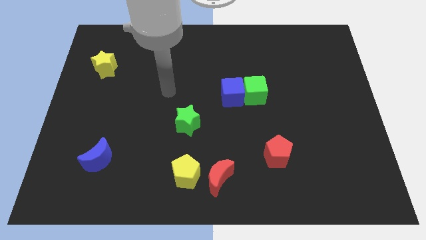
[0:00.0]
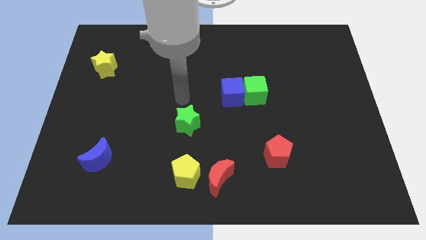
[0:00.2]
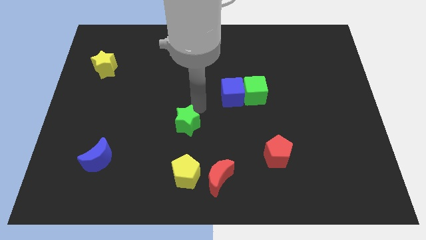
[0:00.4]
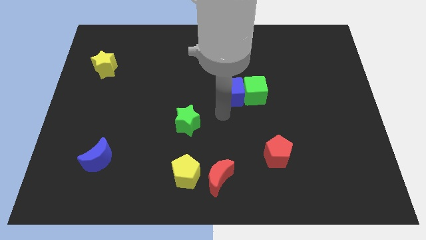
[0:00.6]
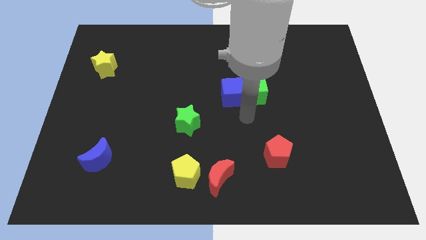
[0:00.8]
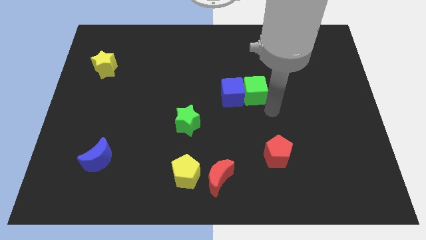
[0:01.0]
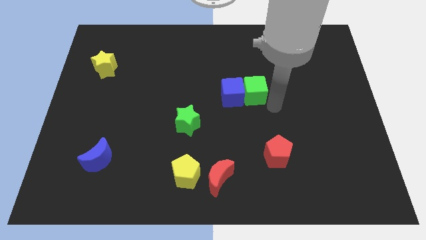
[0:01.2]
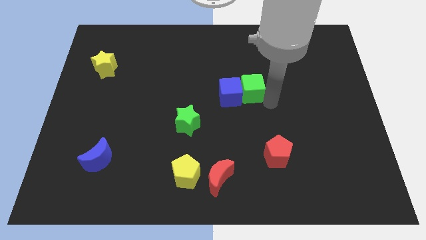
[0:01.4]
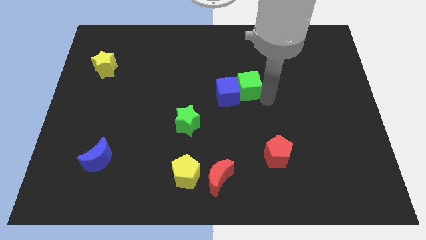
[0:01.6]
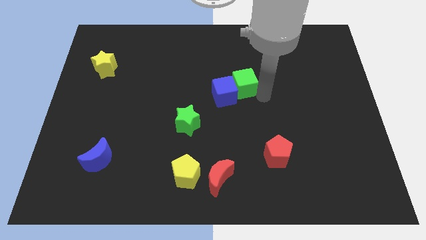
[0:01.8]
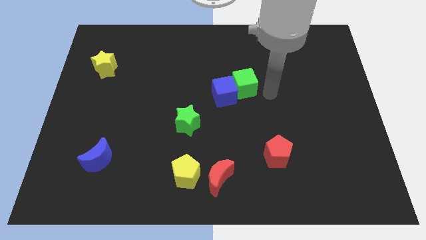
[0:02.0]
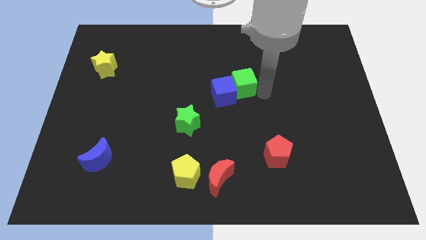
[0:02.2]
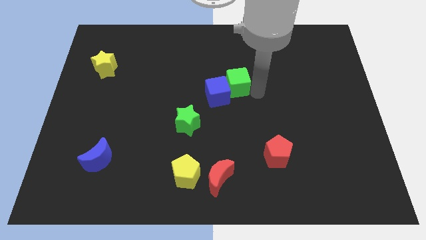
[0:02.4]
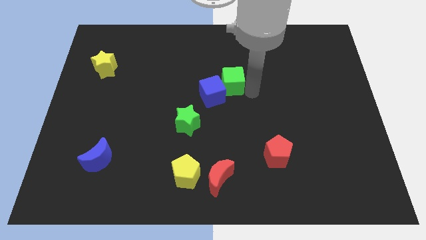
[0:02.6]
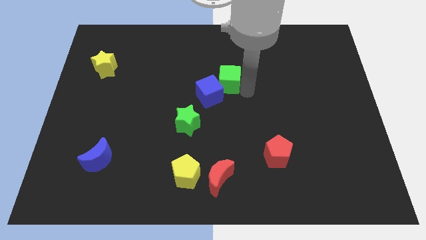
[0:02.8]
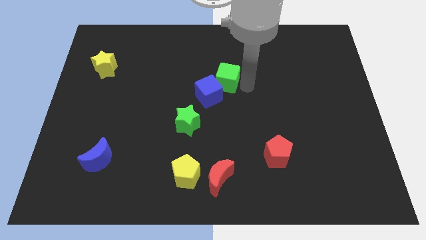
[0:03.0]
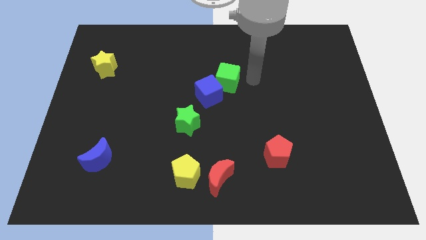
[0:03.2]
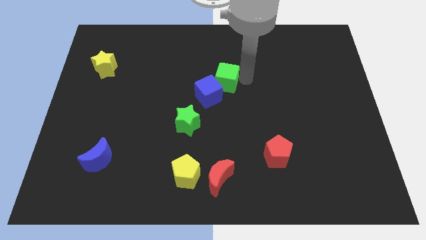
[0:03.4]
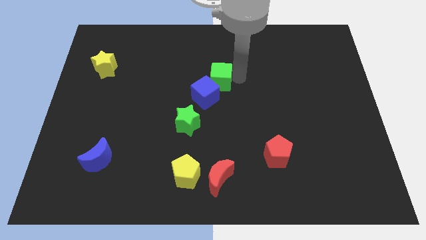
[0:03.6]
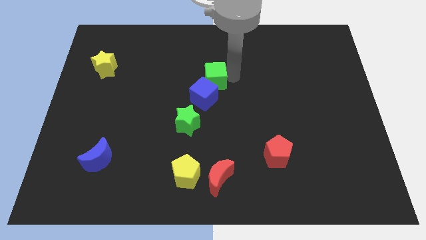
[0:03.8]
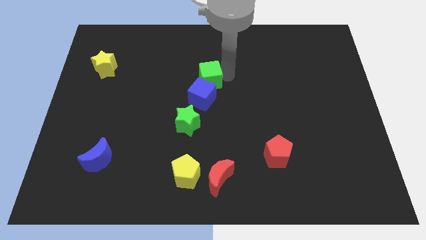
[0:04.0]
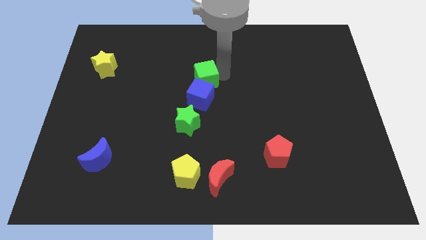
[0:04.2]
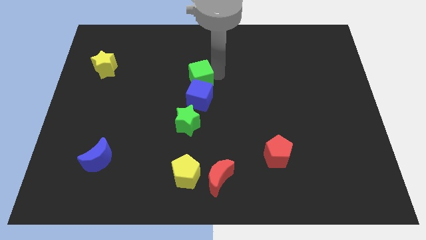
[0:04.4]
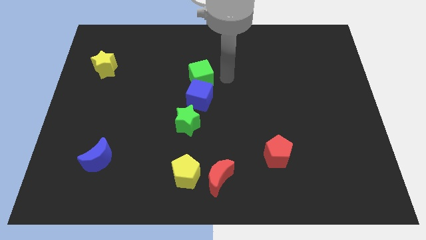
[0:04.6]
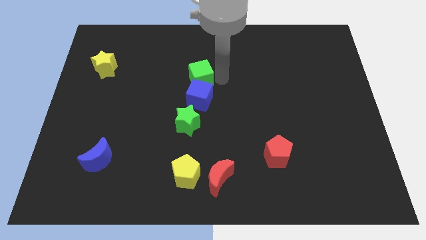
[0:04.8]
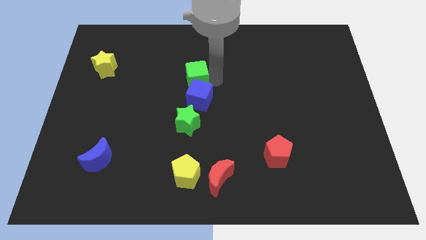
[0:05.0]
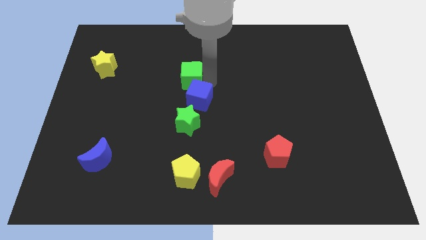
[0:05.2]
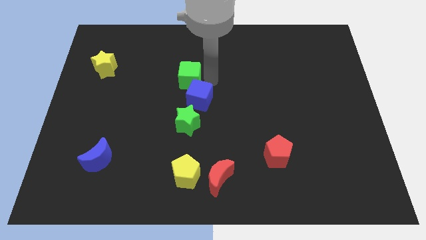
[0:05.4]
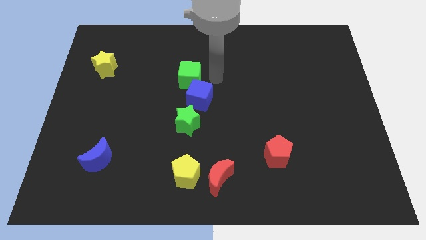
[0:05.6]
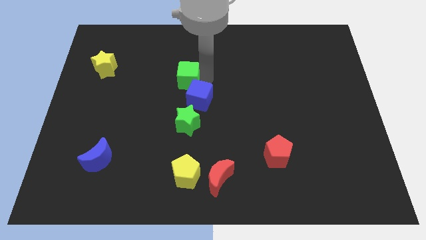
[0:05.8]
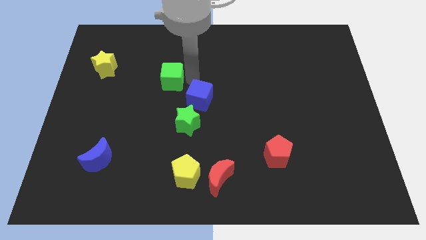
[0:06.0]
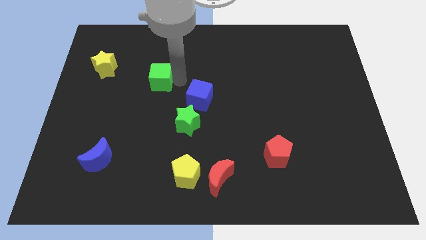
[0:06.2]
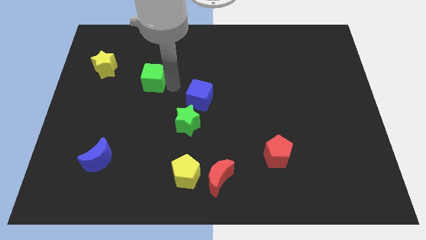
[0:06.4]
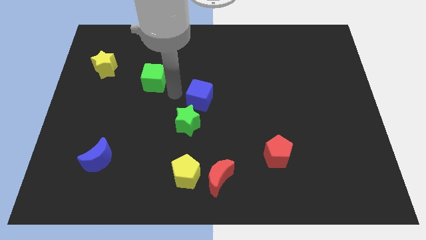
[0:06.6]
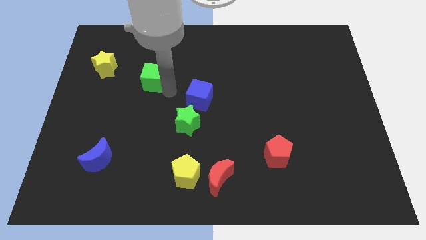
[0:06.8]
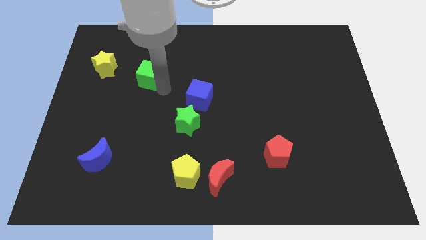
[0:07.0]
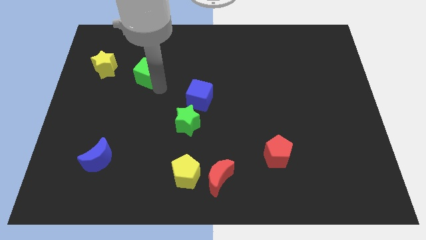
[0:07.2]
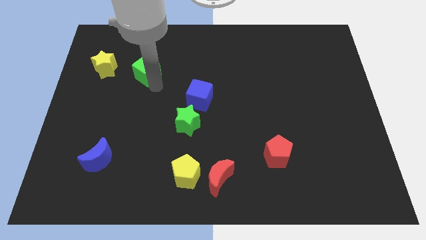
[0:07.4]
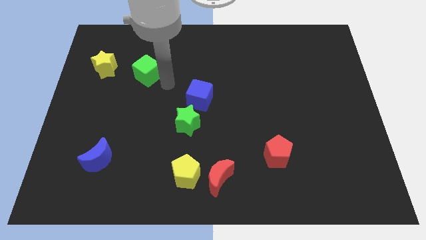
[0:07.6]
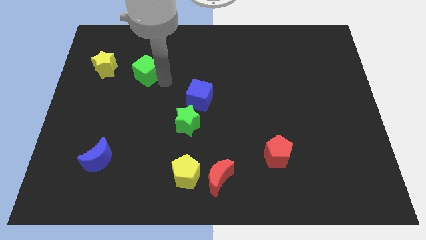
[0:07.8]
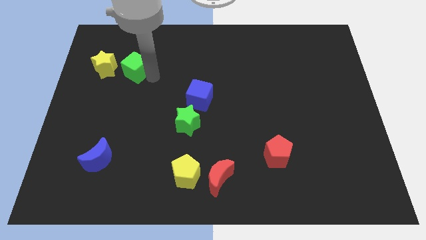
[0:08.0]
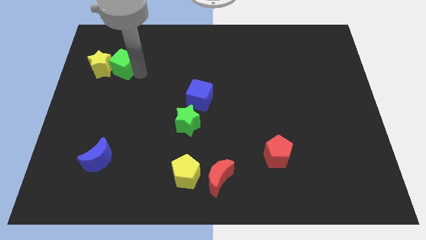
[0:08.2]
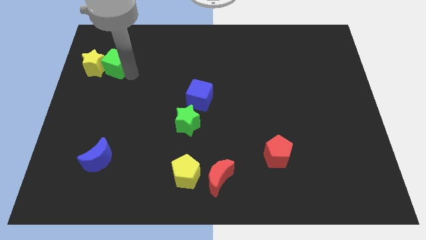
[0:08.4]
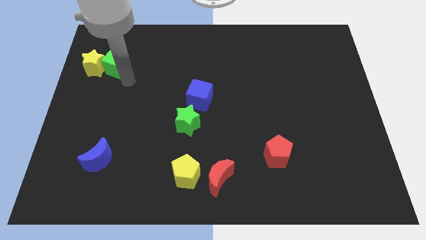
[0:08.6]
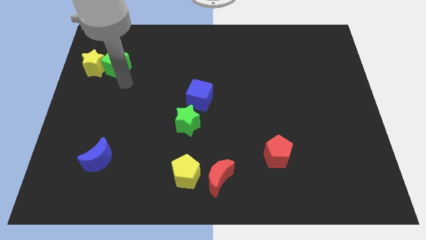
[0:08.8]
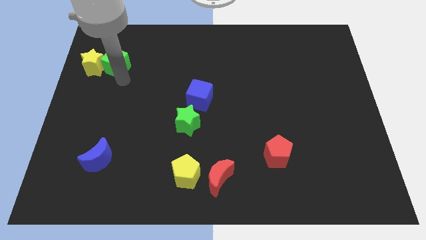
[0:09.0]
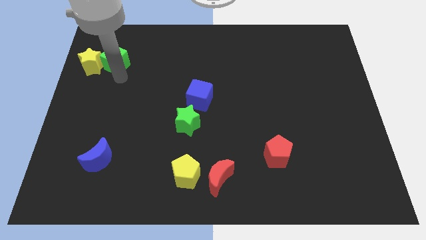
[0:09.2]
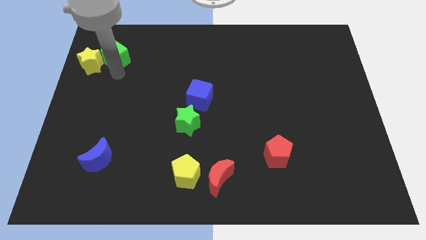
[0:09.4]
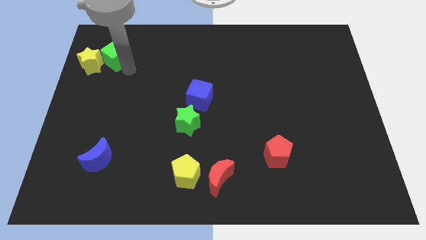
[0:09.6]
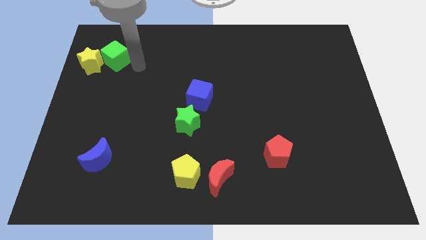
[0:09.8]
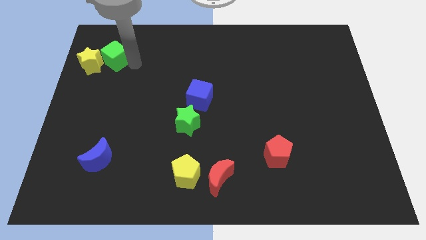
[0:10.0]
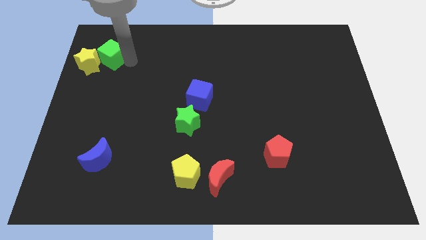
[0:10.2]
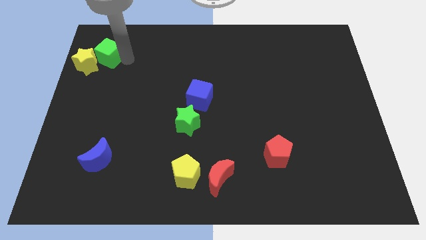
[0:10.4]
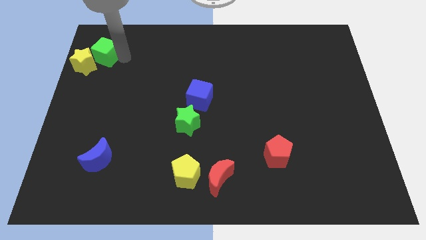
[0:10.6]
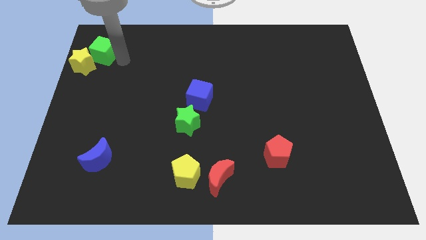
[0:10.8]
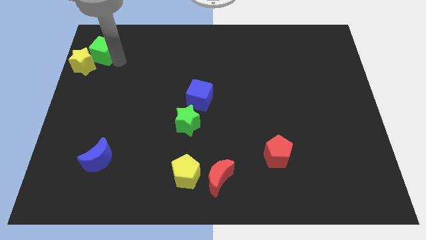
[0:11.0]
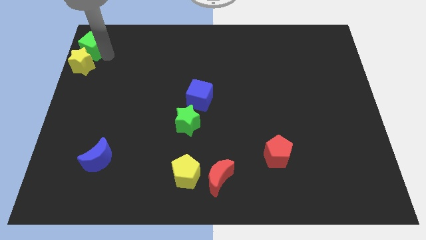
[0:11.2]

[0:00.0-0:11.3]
push the green cube to the top left

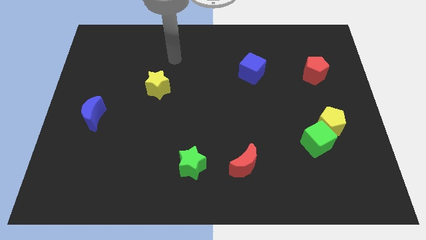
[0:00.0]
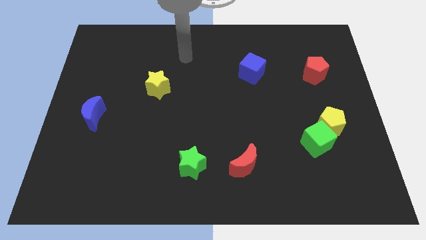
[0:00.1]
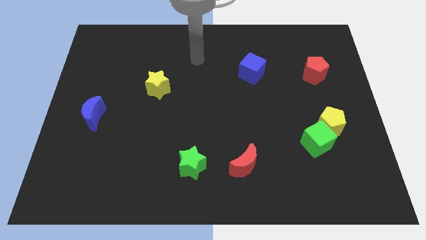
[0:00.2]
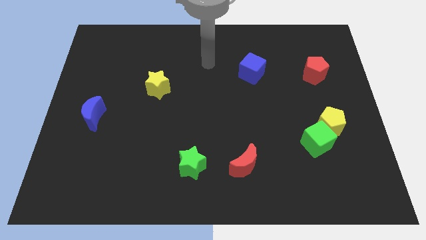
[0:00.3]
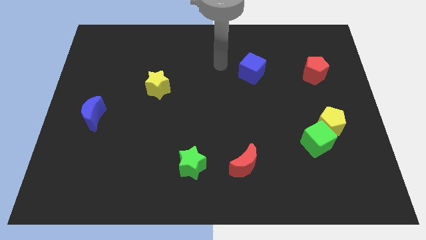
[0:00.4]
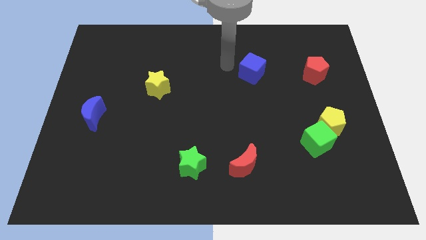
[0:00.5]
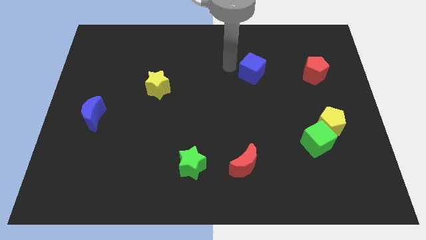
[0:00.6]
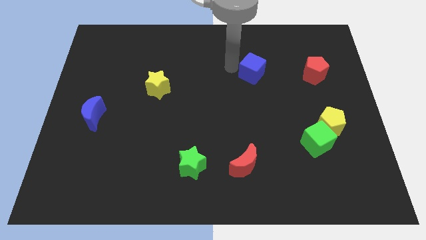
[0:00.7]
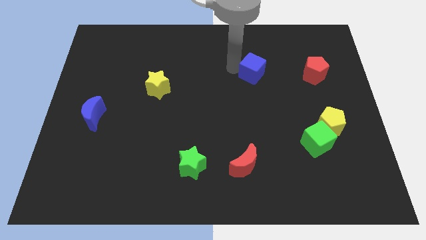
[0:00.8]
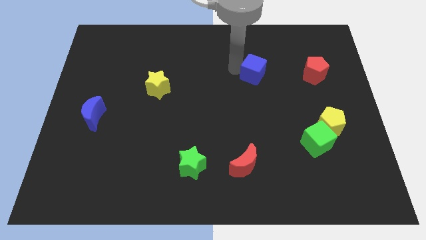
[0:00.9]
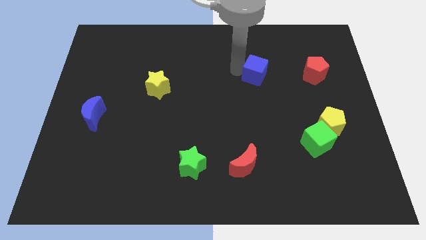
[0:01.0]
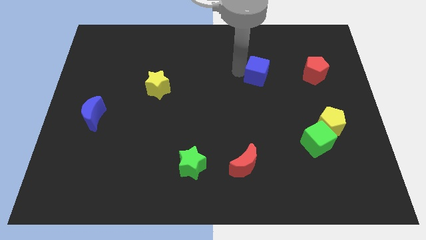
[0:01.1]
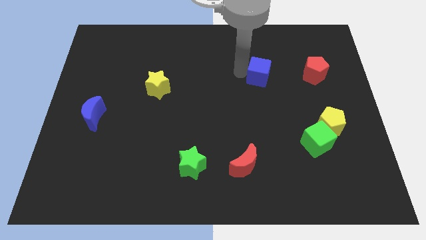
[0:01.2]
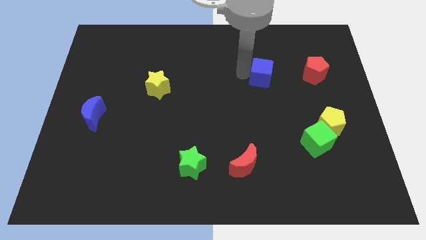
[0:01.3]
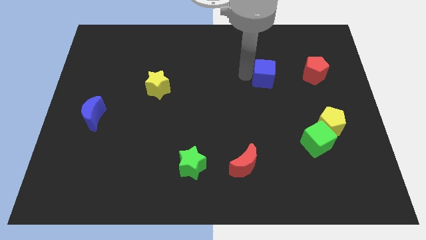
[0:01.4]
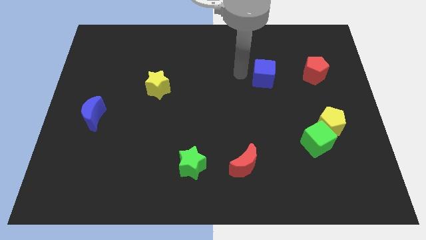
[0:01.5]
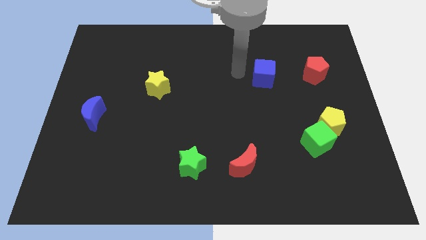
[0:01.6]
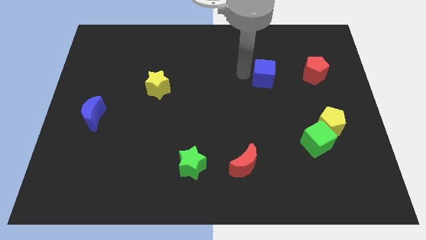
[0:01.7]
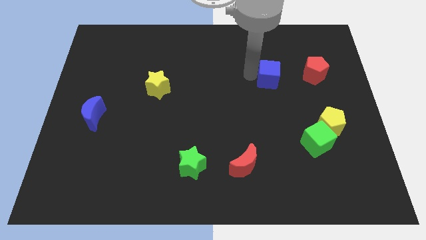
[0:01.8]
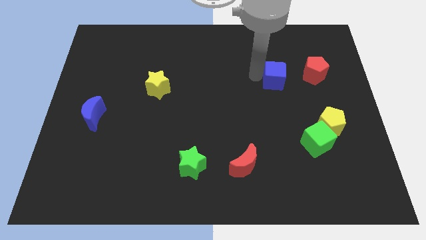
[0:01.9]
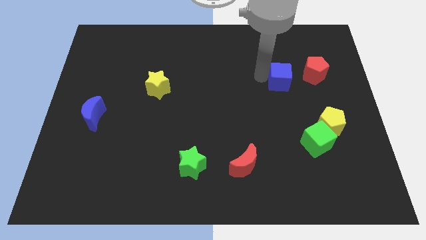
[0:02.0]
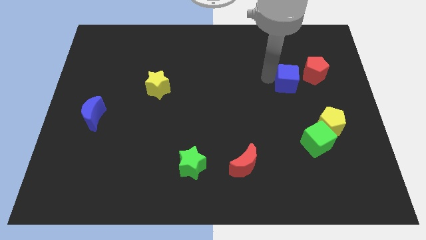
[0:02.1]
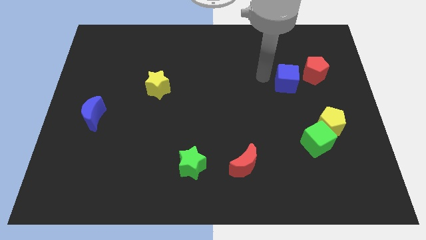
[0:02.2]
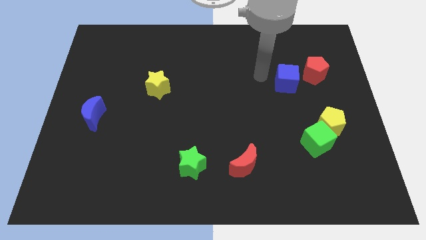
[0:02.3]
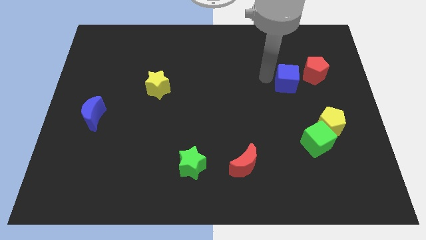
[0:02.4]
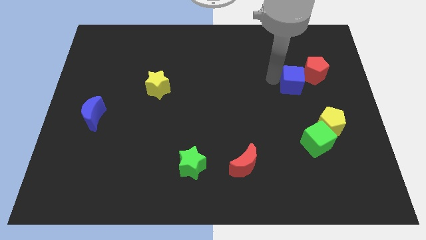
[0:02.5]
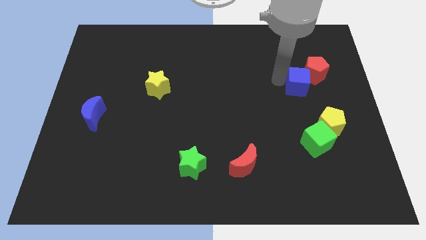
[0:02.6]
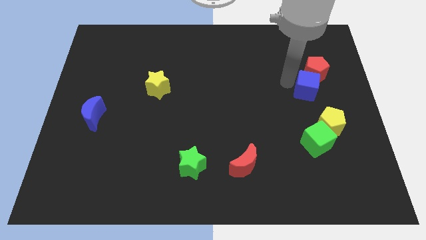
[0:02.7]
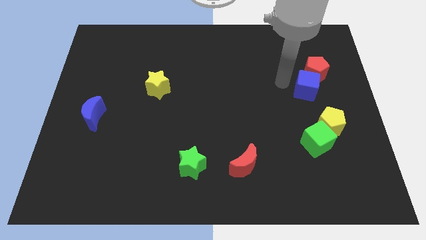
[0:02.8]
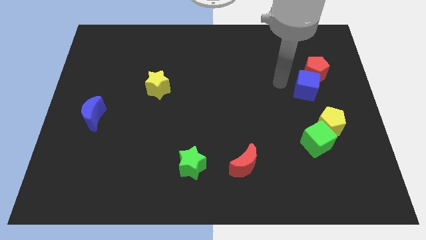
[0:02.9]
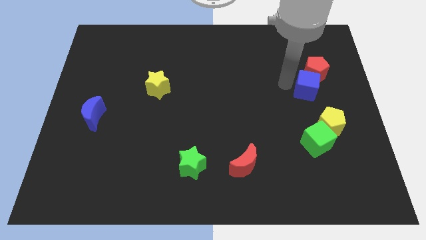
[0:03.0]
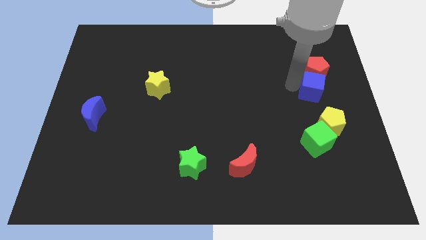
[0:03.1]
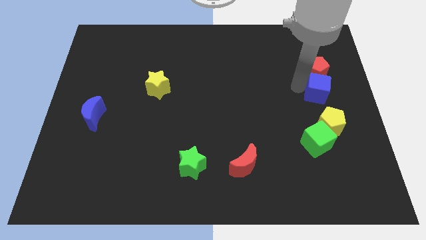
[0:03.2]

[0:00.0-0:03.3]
slide the blue cube to the right side
